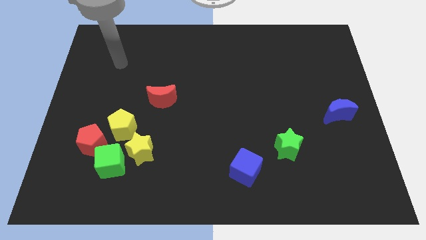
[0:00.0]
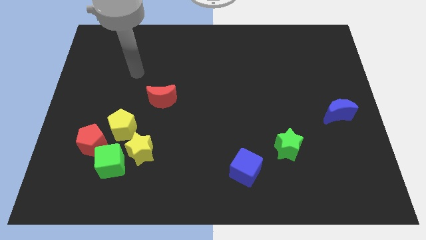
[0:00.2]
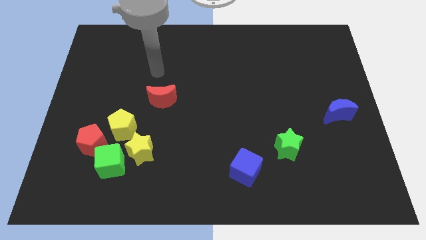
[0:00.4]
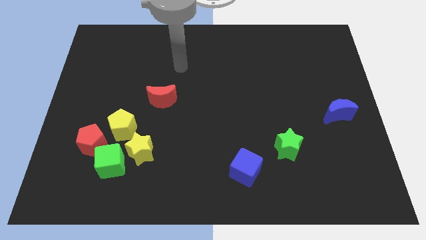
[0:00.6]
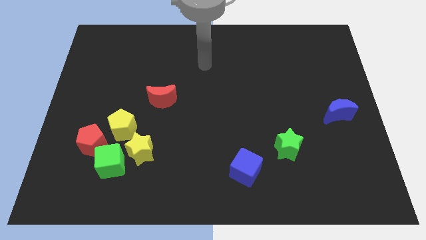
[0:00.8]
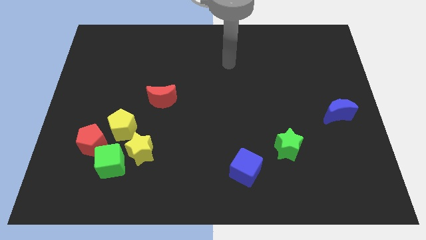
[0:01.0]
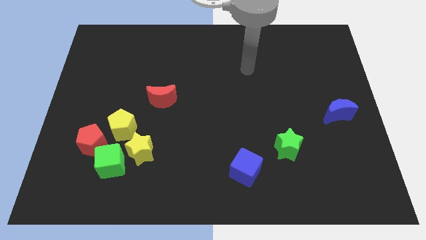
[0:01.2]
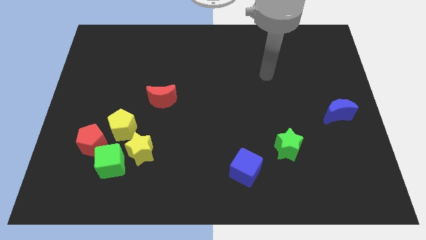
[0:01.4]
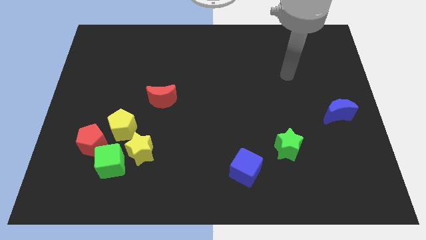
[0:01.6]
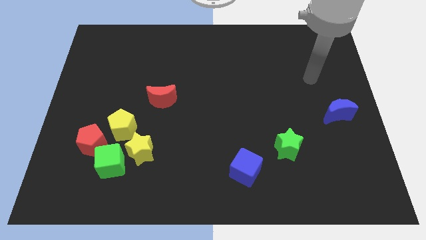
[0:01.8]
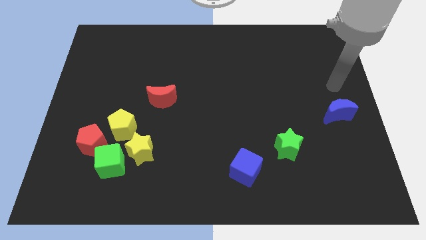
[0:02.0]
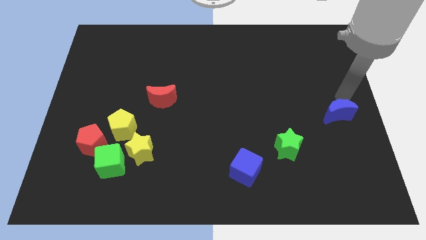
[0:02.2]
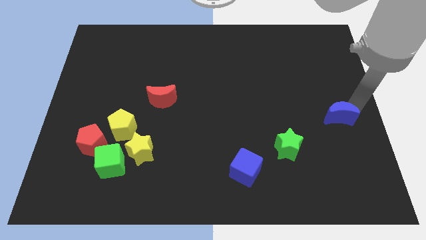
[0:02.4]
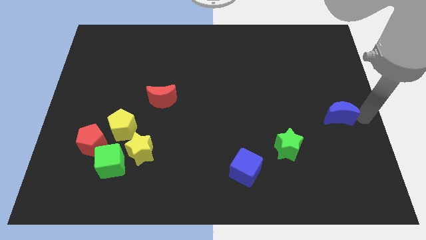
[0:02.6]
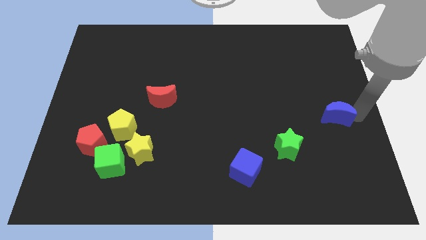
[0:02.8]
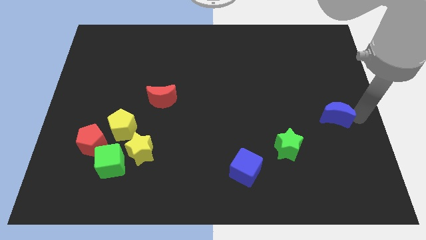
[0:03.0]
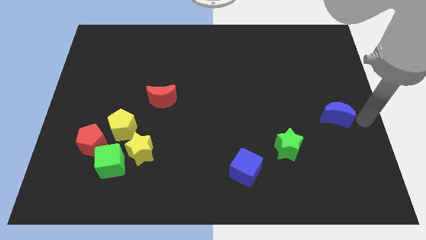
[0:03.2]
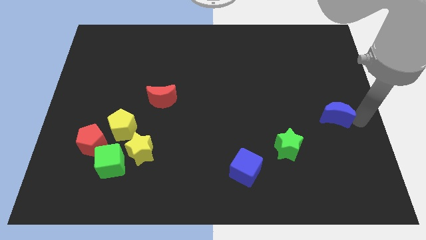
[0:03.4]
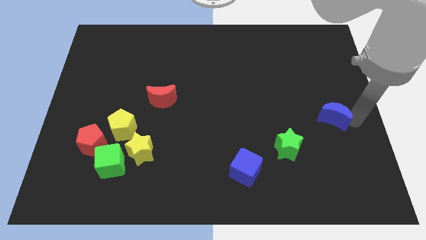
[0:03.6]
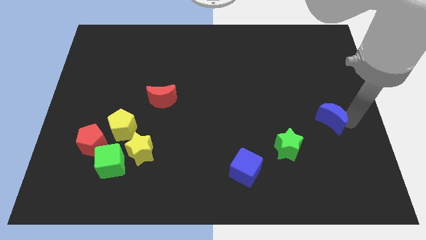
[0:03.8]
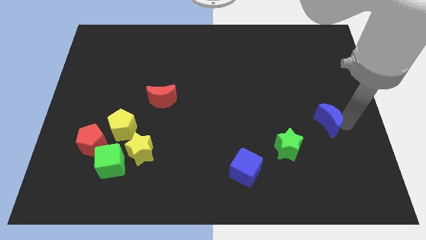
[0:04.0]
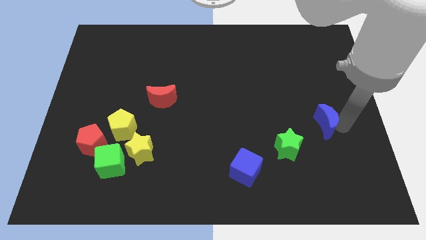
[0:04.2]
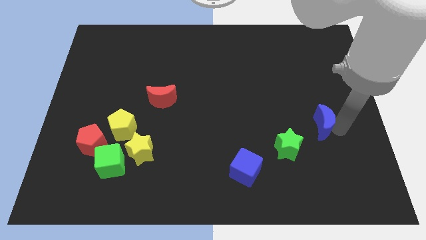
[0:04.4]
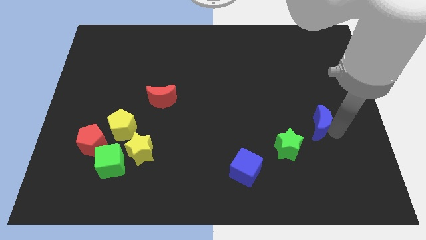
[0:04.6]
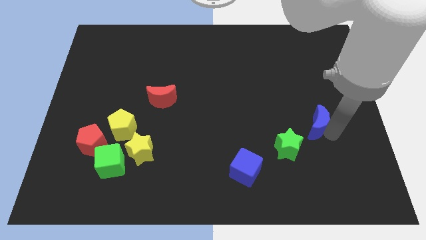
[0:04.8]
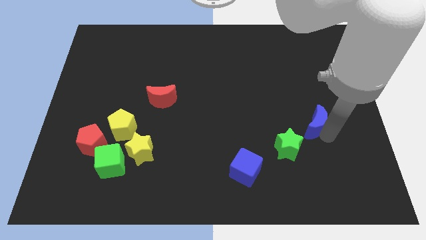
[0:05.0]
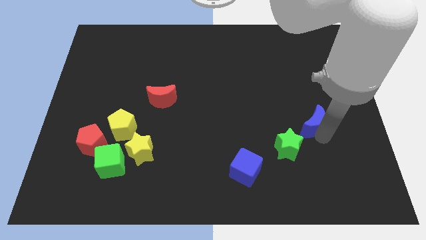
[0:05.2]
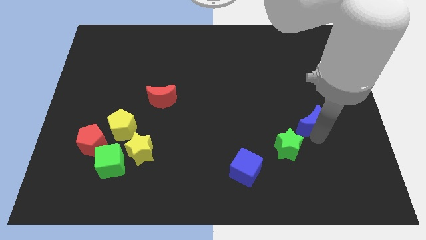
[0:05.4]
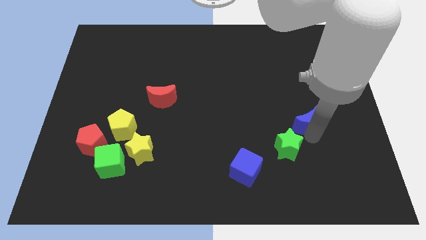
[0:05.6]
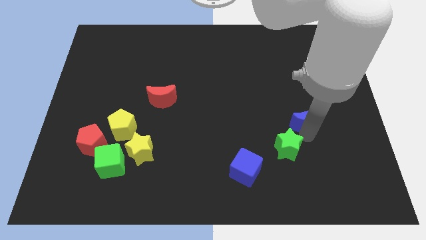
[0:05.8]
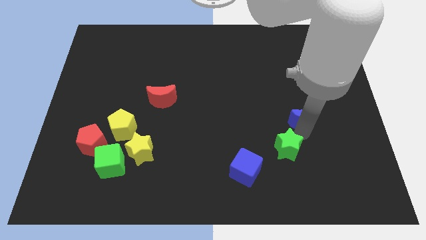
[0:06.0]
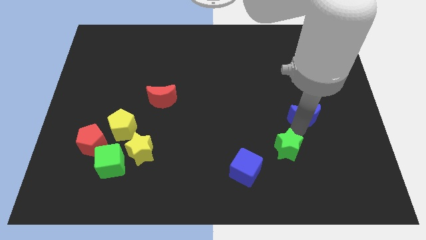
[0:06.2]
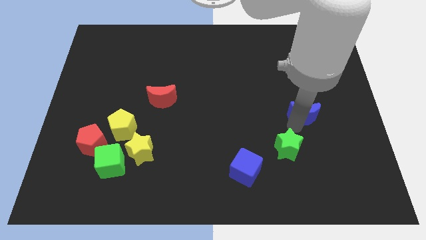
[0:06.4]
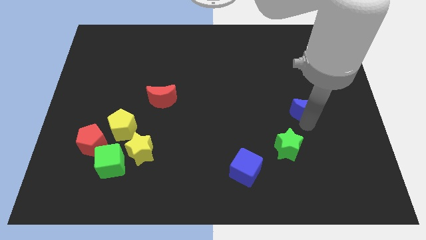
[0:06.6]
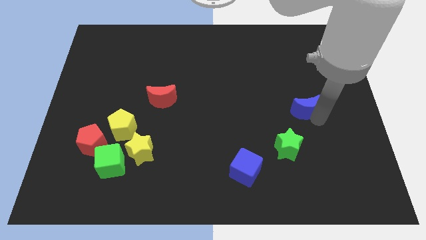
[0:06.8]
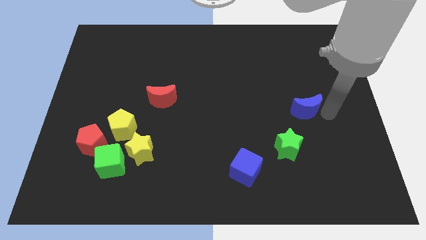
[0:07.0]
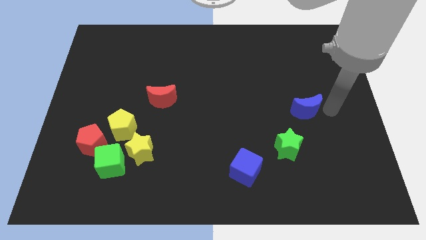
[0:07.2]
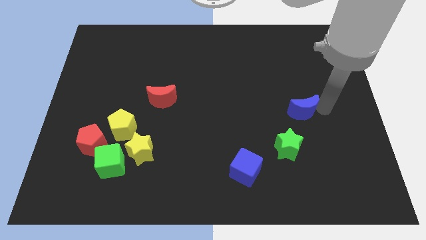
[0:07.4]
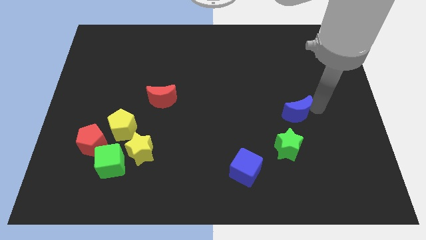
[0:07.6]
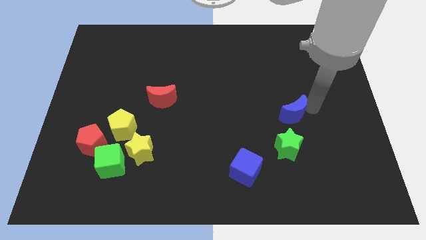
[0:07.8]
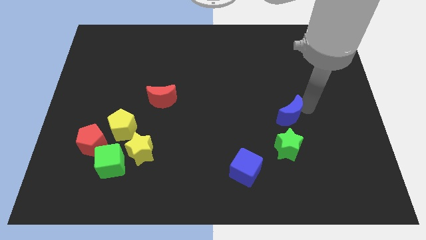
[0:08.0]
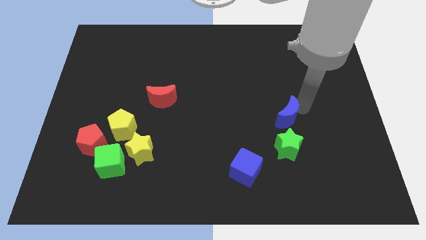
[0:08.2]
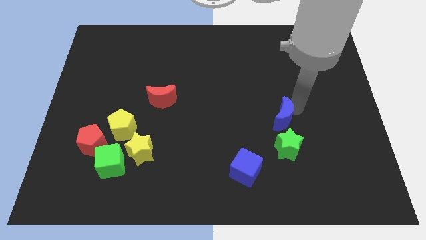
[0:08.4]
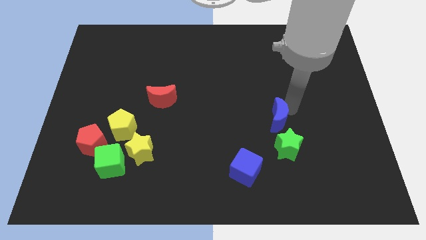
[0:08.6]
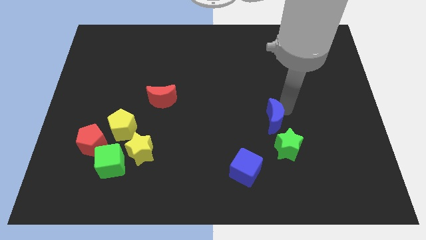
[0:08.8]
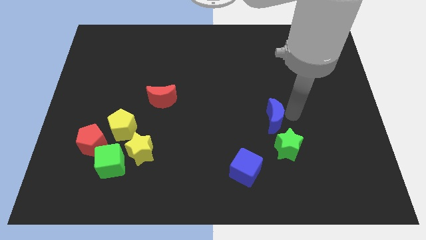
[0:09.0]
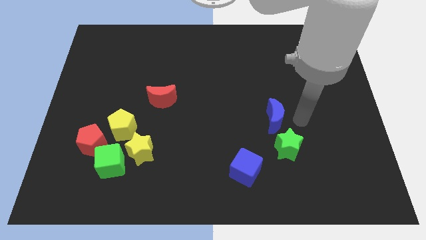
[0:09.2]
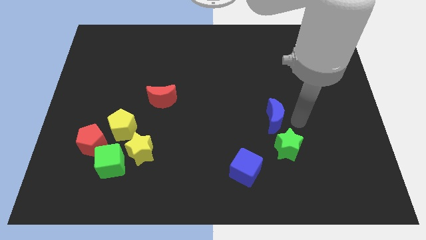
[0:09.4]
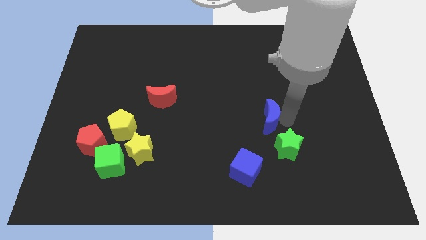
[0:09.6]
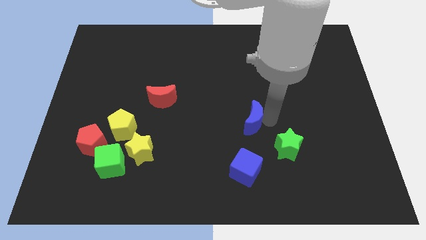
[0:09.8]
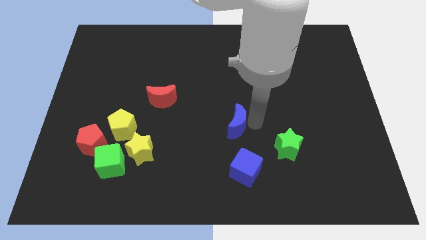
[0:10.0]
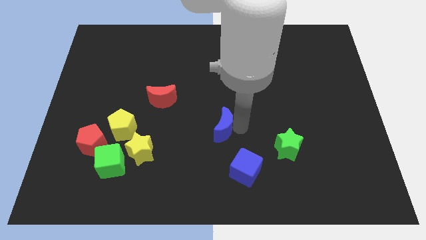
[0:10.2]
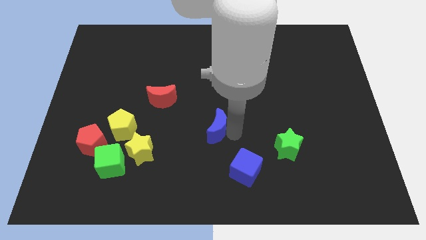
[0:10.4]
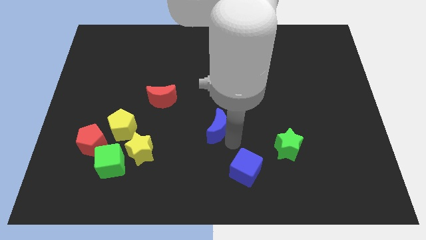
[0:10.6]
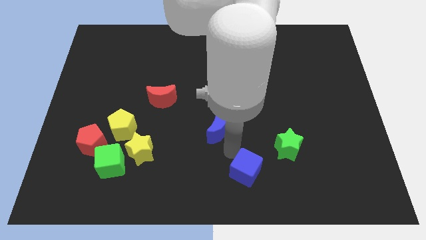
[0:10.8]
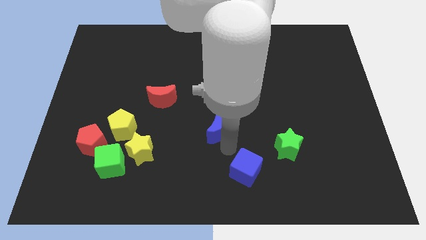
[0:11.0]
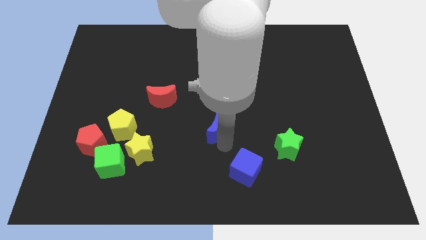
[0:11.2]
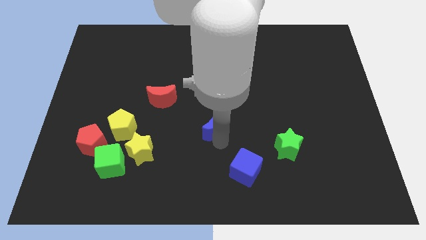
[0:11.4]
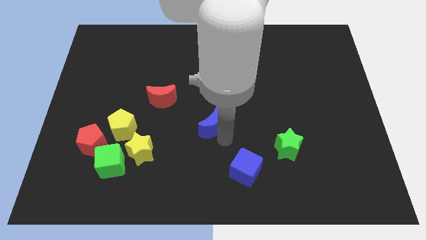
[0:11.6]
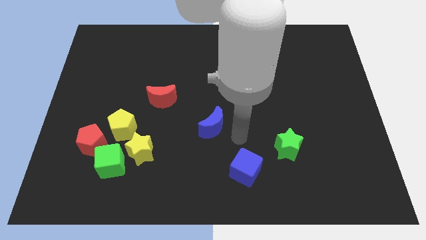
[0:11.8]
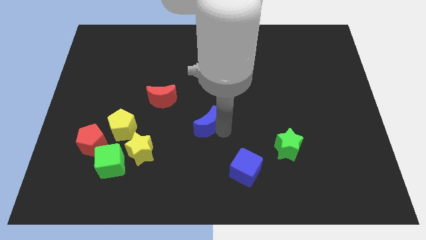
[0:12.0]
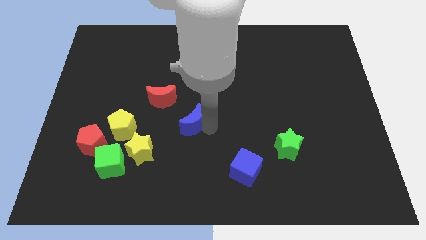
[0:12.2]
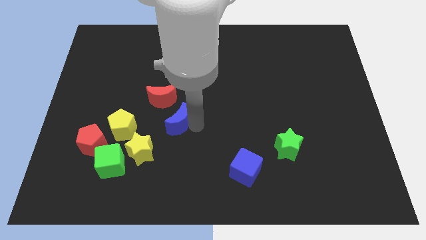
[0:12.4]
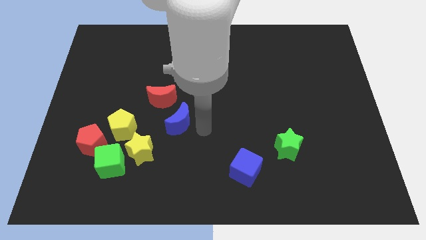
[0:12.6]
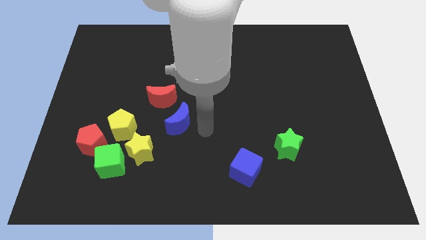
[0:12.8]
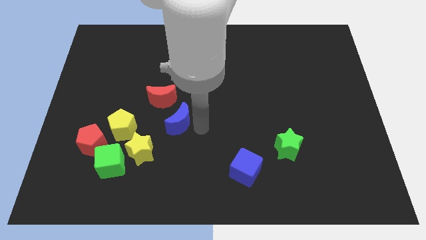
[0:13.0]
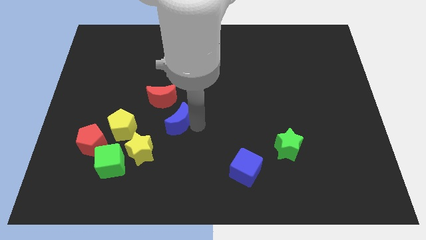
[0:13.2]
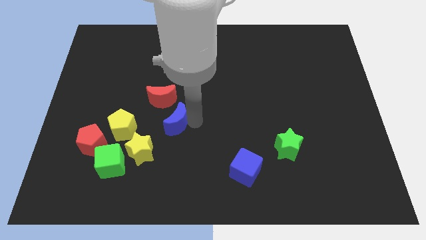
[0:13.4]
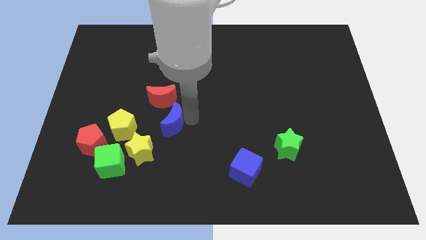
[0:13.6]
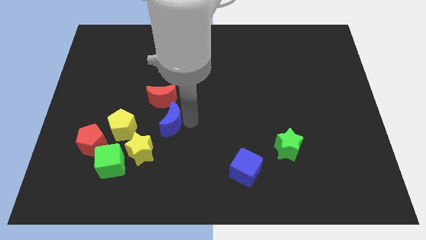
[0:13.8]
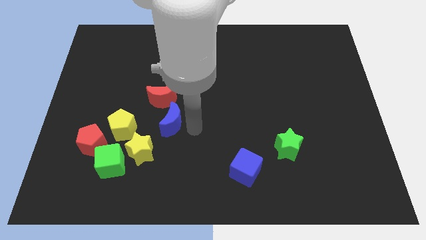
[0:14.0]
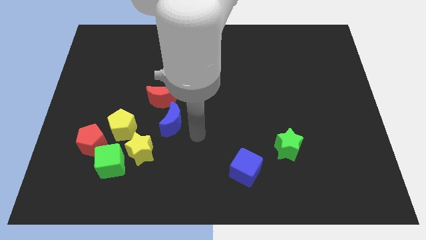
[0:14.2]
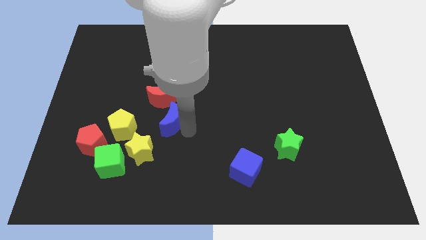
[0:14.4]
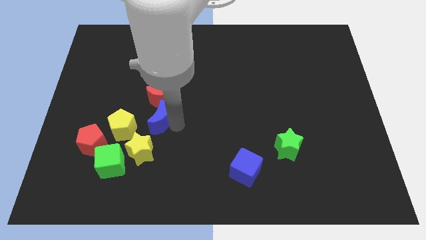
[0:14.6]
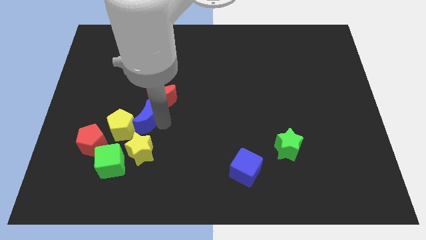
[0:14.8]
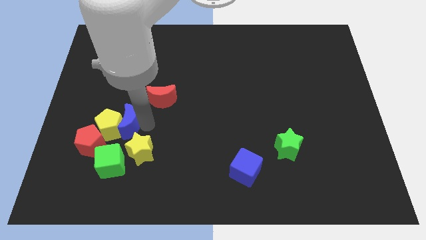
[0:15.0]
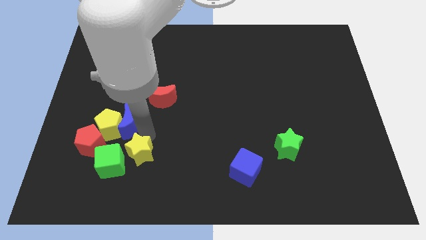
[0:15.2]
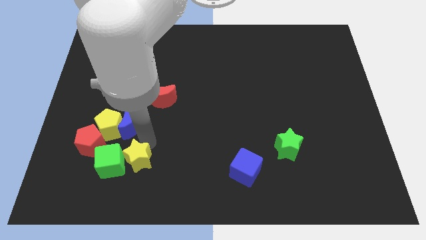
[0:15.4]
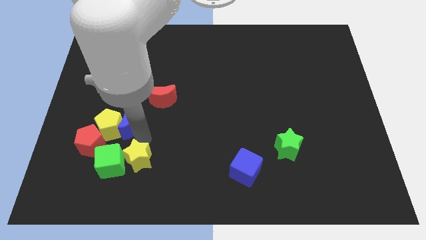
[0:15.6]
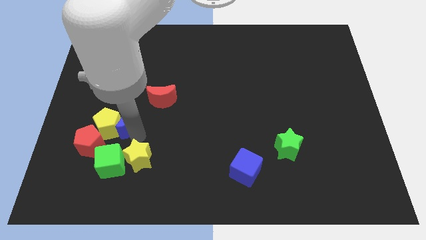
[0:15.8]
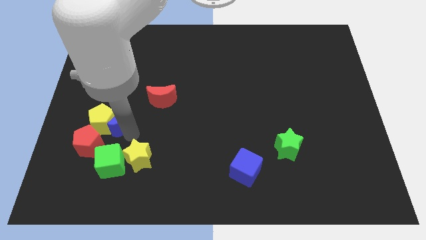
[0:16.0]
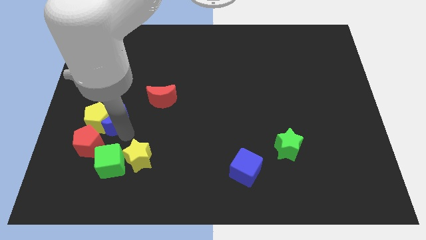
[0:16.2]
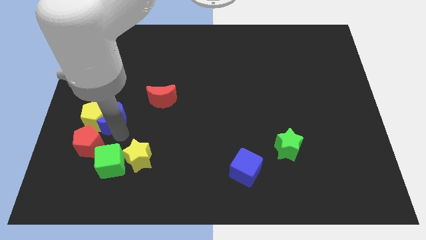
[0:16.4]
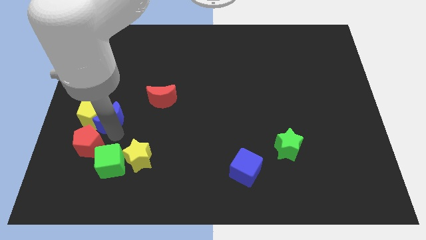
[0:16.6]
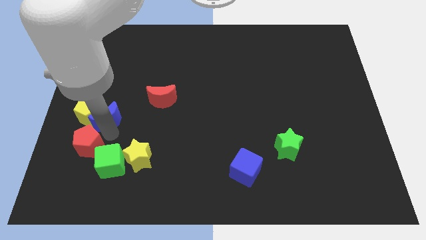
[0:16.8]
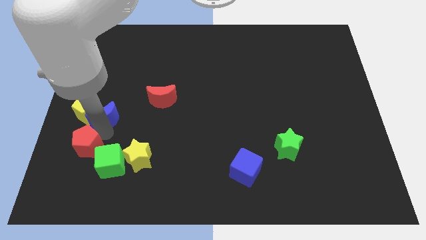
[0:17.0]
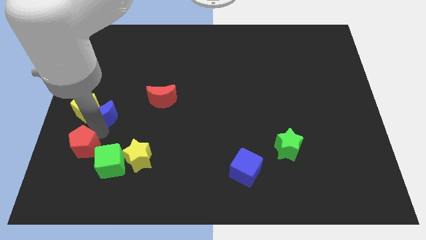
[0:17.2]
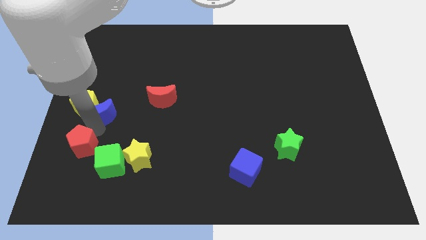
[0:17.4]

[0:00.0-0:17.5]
move the blue moon to the center left
